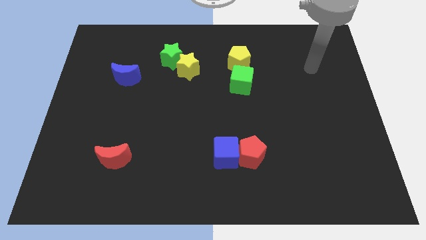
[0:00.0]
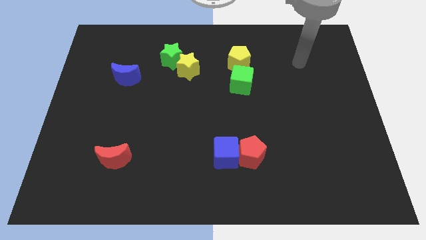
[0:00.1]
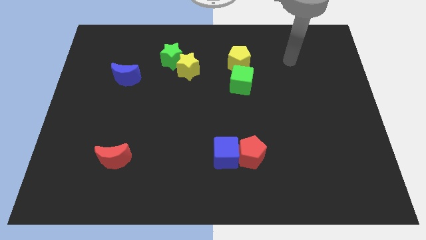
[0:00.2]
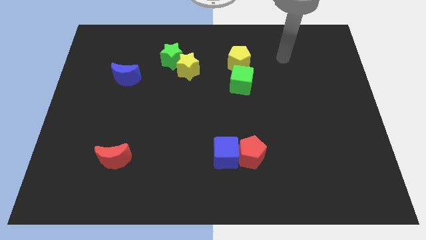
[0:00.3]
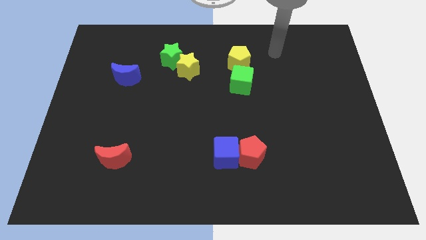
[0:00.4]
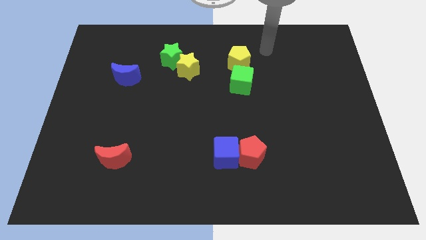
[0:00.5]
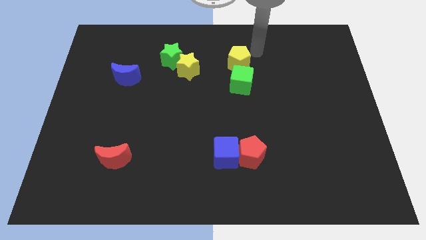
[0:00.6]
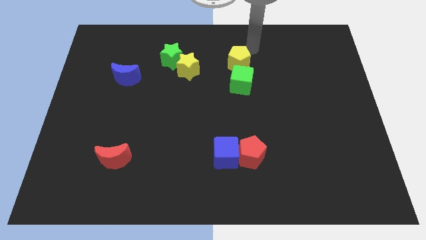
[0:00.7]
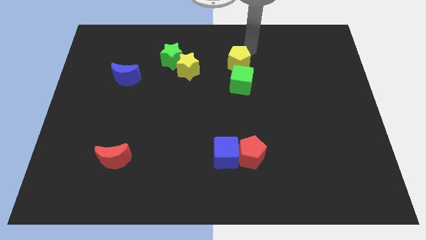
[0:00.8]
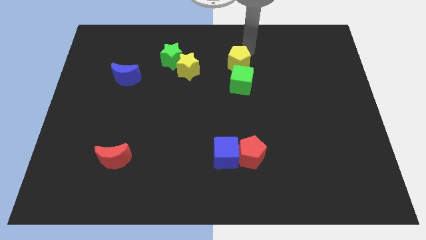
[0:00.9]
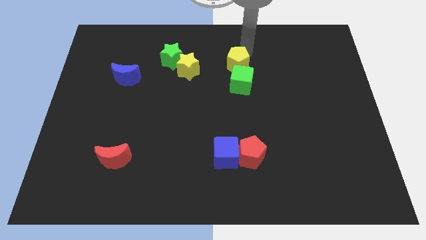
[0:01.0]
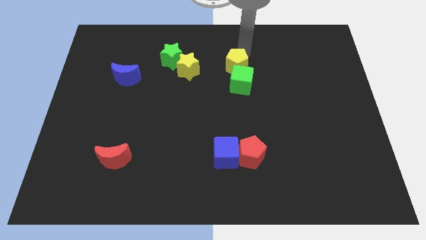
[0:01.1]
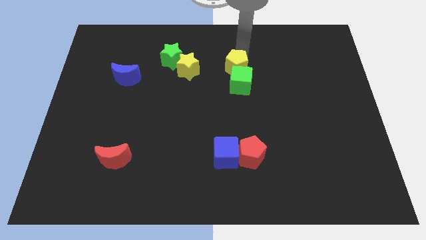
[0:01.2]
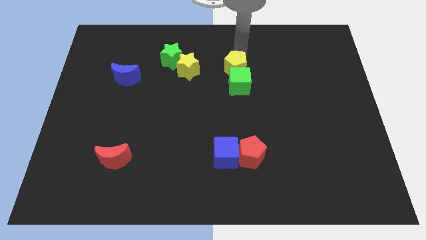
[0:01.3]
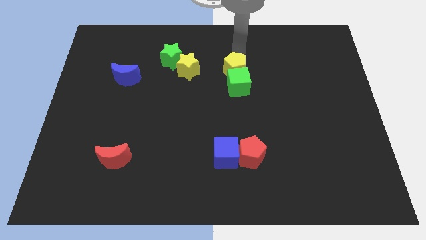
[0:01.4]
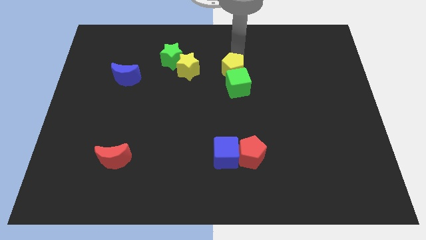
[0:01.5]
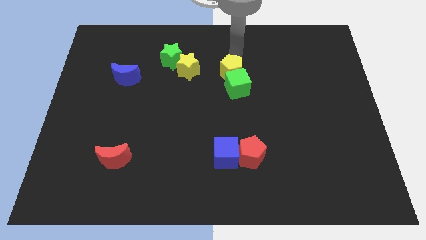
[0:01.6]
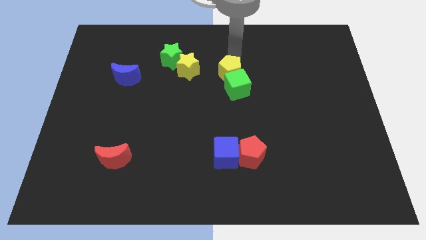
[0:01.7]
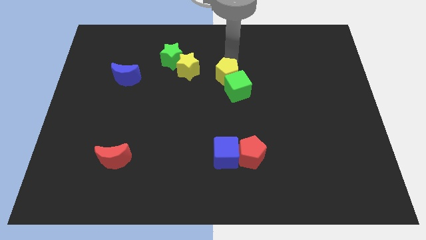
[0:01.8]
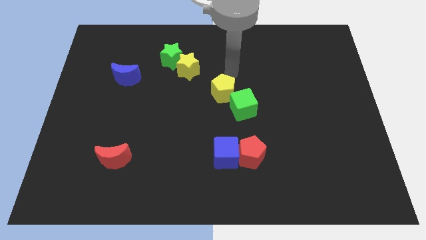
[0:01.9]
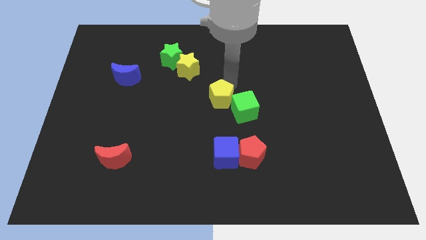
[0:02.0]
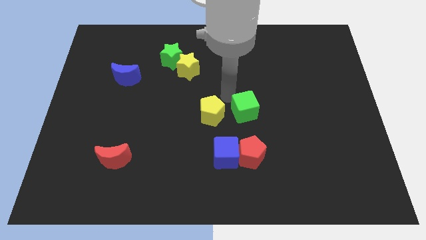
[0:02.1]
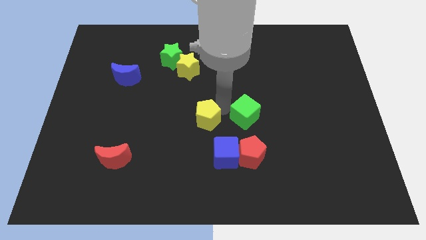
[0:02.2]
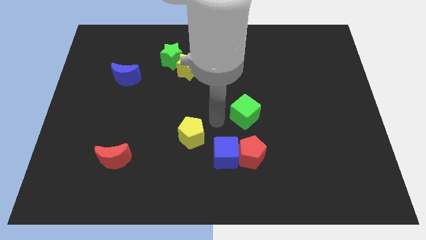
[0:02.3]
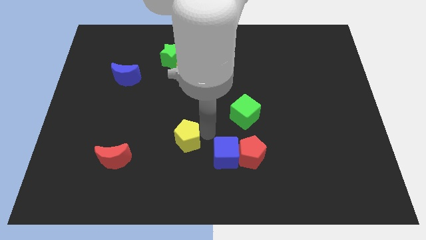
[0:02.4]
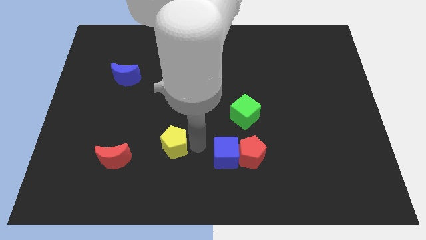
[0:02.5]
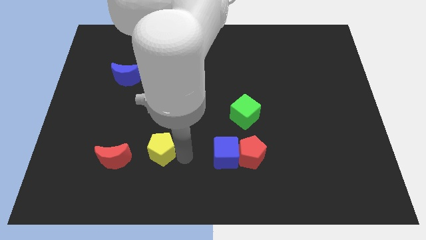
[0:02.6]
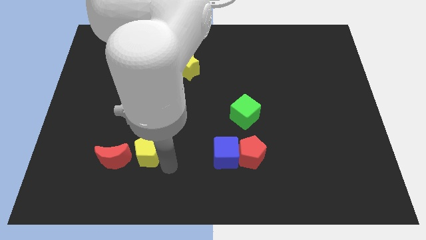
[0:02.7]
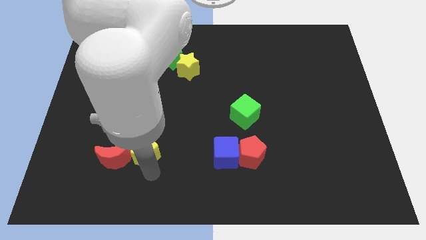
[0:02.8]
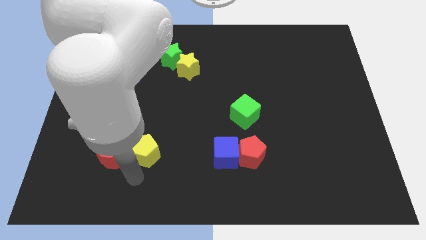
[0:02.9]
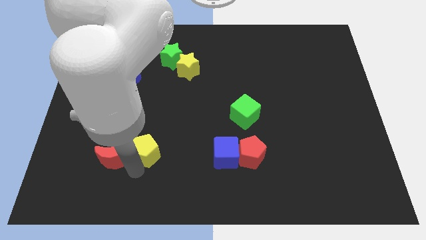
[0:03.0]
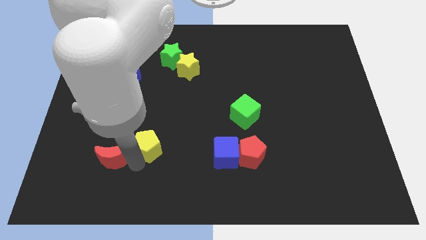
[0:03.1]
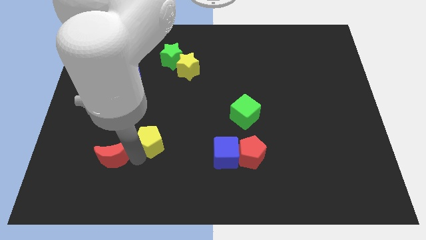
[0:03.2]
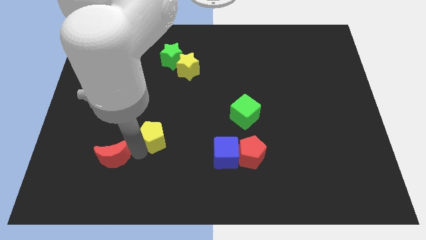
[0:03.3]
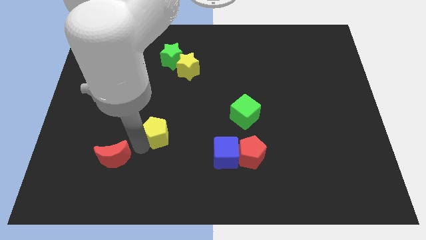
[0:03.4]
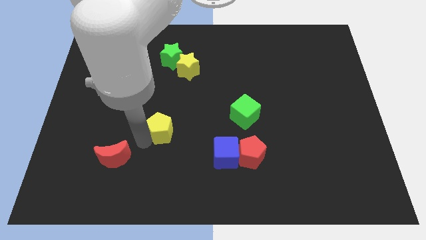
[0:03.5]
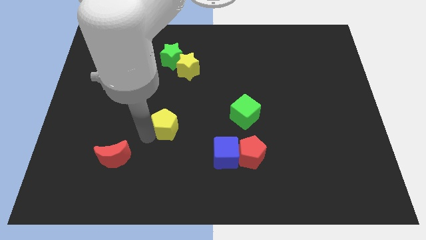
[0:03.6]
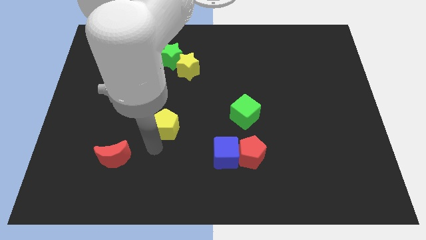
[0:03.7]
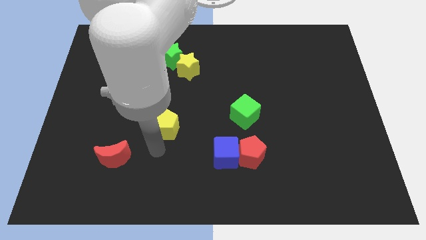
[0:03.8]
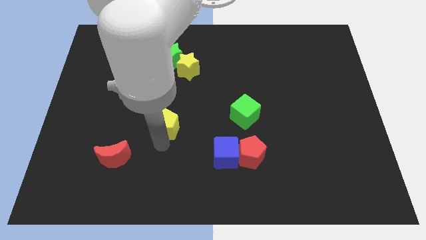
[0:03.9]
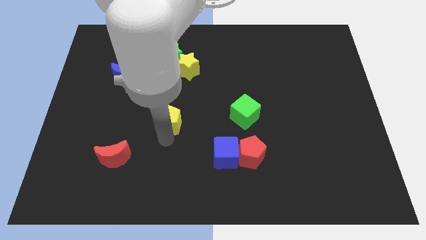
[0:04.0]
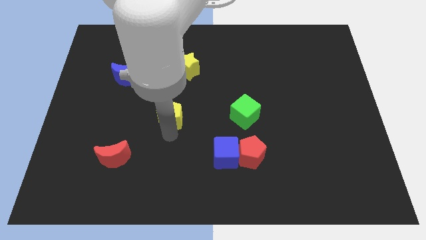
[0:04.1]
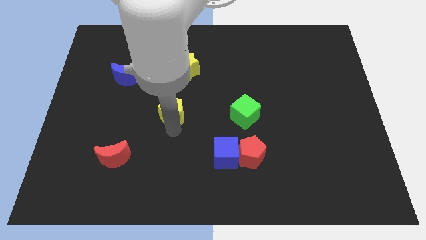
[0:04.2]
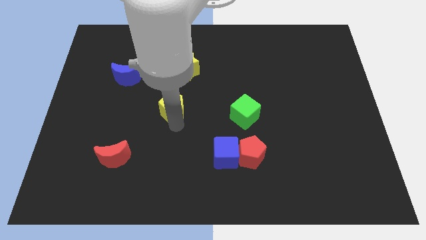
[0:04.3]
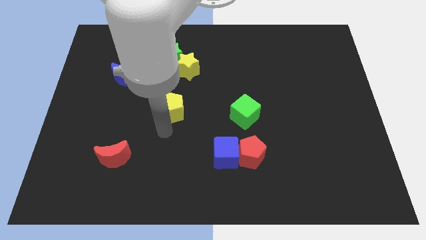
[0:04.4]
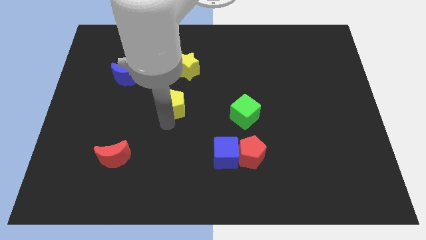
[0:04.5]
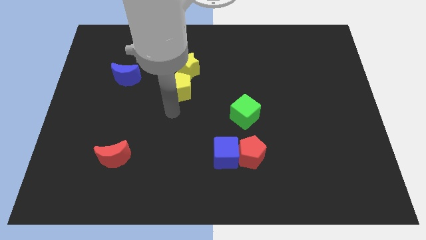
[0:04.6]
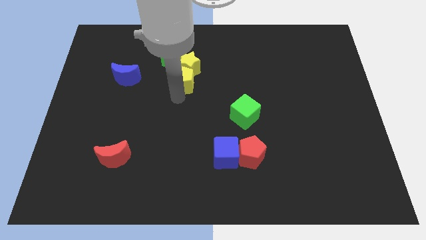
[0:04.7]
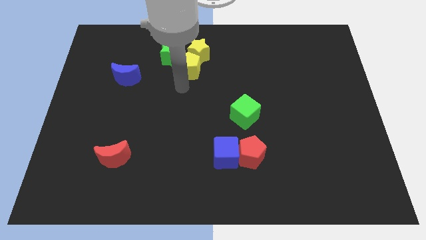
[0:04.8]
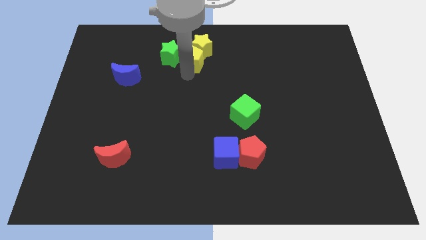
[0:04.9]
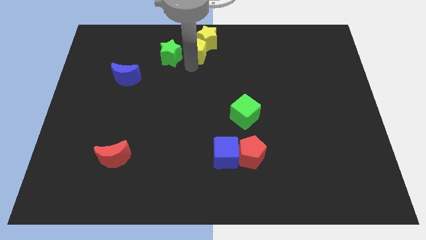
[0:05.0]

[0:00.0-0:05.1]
put the yellow pentagon to the towards your base

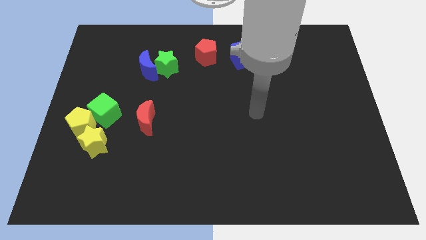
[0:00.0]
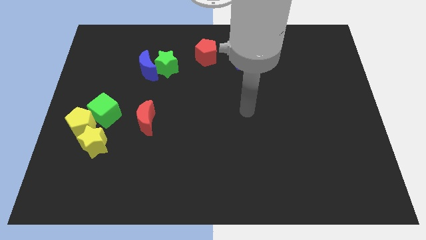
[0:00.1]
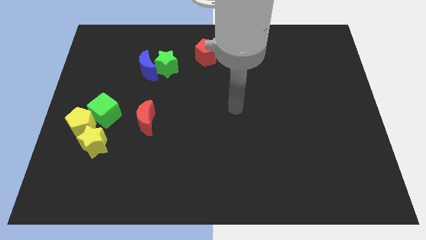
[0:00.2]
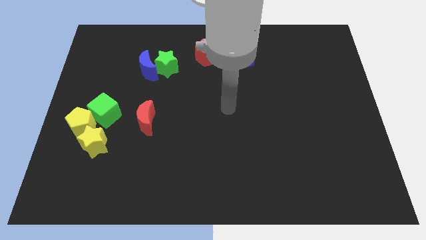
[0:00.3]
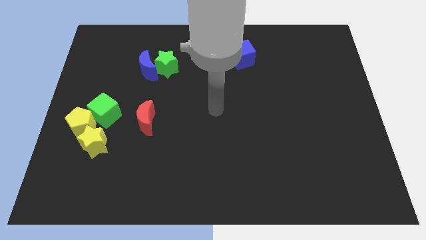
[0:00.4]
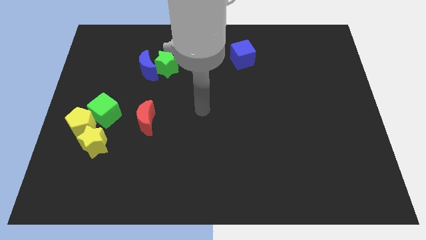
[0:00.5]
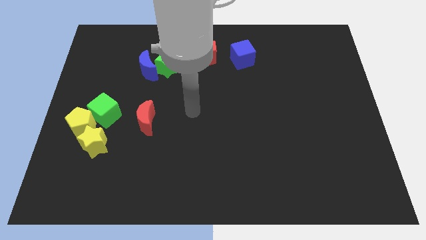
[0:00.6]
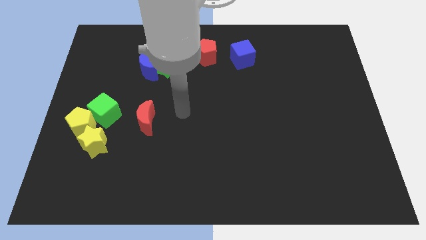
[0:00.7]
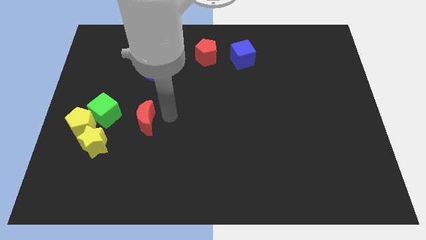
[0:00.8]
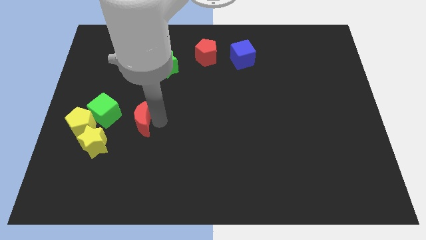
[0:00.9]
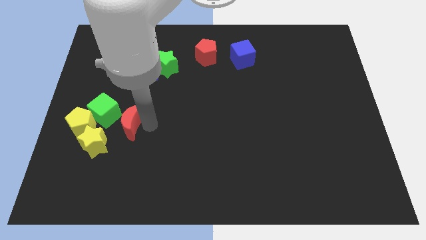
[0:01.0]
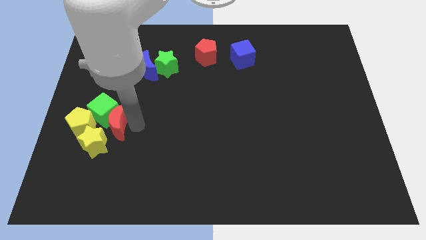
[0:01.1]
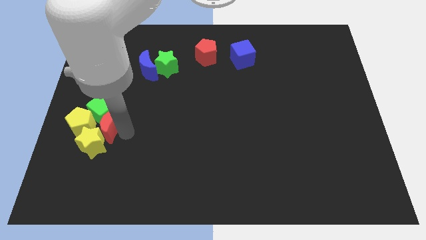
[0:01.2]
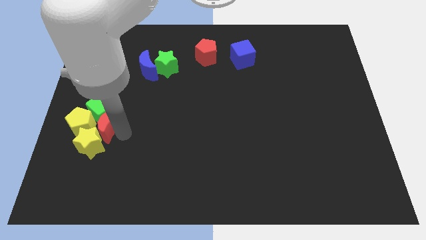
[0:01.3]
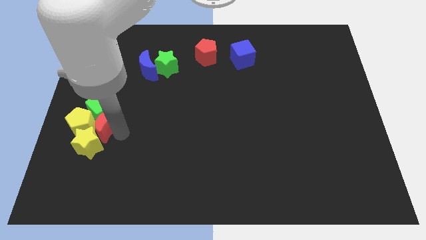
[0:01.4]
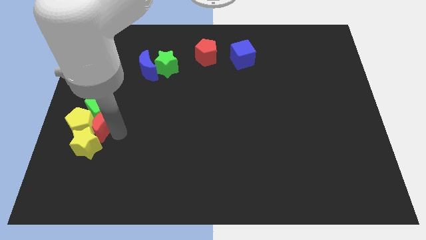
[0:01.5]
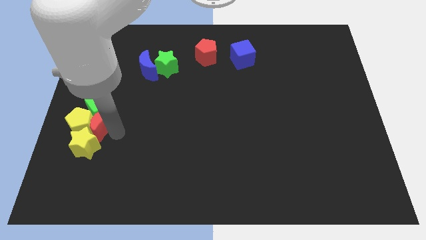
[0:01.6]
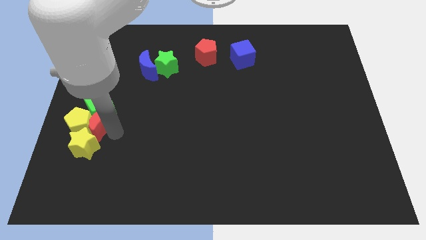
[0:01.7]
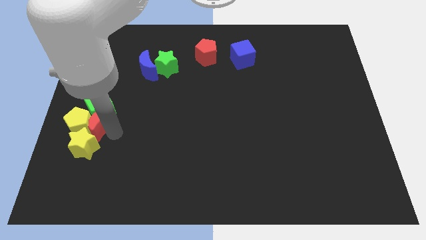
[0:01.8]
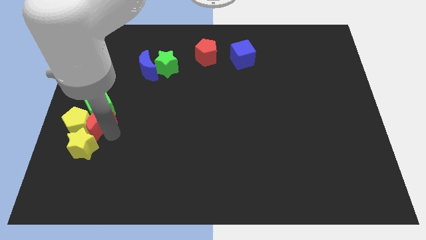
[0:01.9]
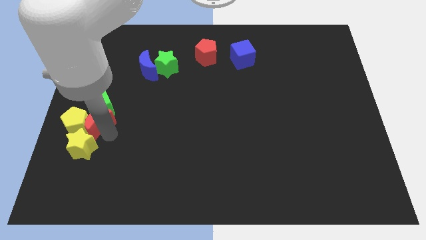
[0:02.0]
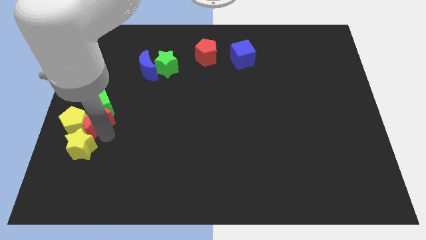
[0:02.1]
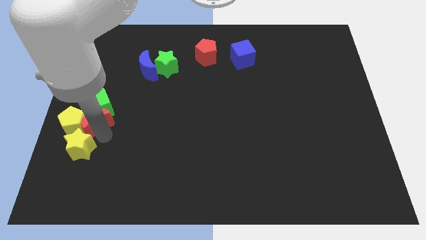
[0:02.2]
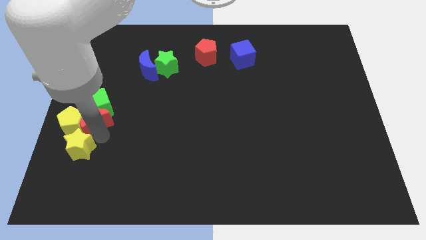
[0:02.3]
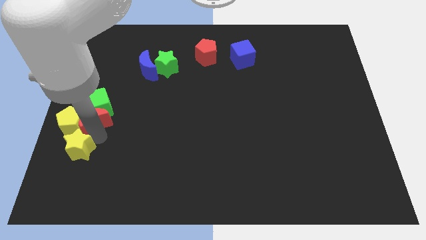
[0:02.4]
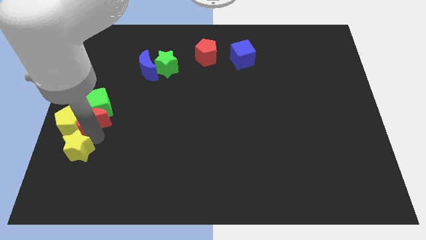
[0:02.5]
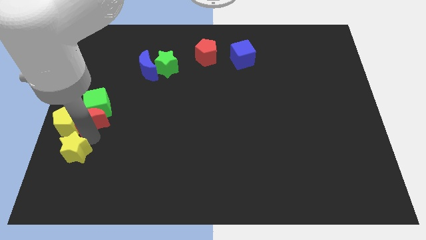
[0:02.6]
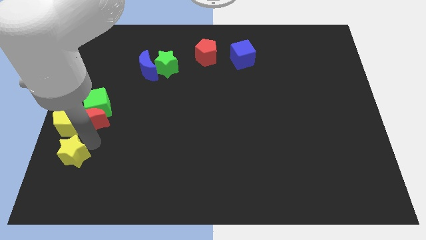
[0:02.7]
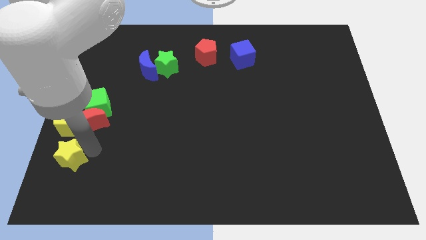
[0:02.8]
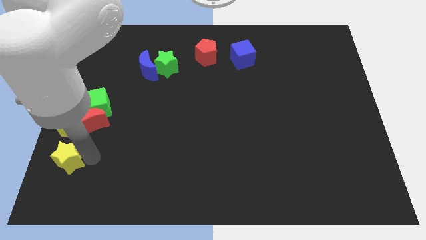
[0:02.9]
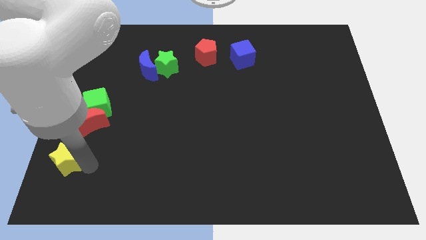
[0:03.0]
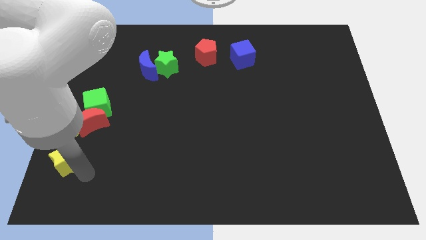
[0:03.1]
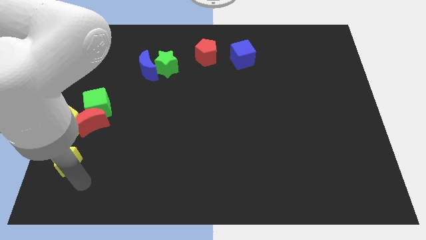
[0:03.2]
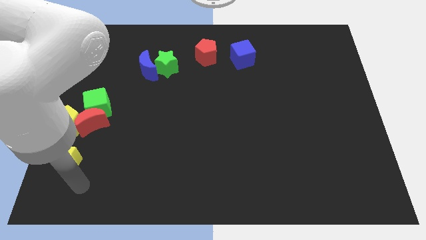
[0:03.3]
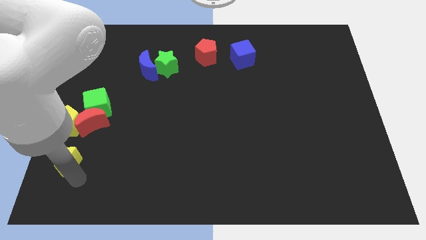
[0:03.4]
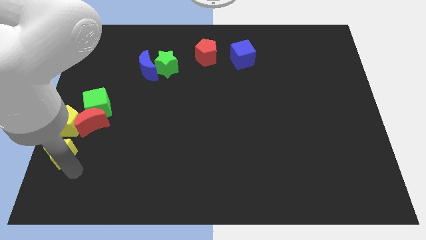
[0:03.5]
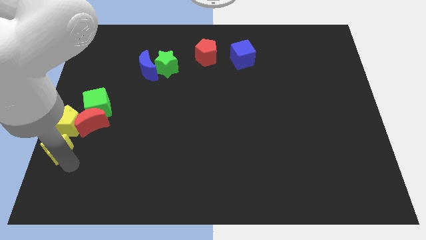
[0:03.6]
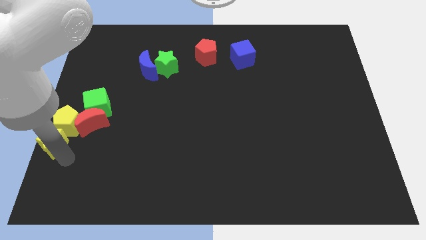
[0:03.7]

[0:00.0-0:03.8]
push the yellow star to the center left

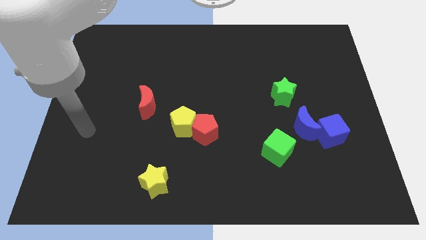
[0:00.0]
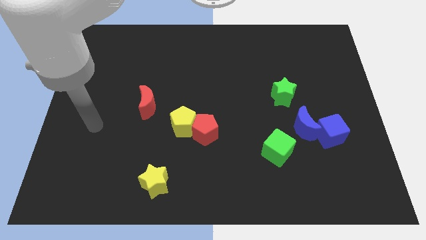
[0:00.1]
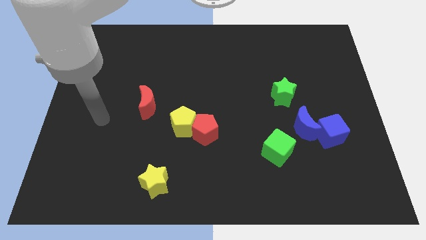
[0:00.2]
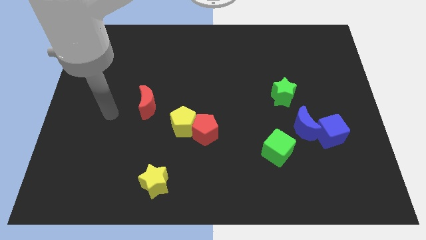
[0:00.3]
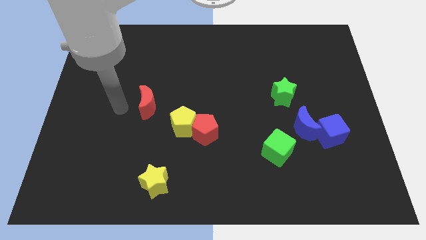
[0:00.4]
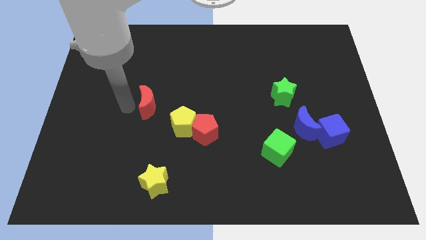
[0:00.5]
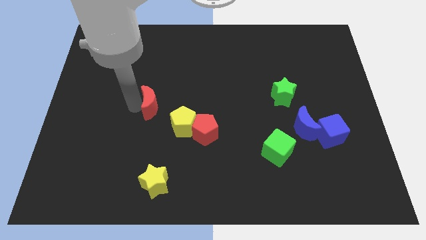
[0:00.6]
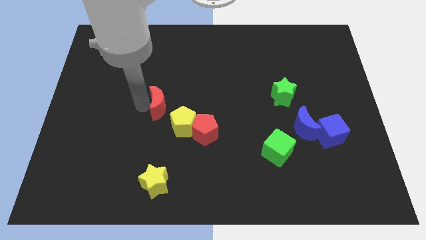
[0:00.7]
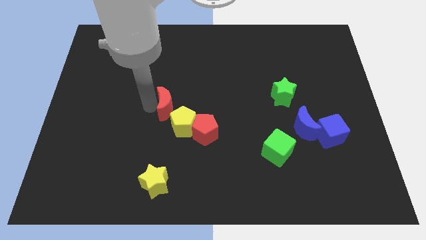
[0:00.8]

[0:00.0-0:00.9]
put the red moon to the center
